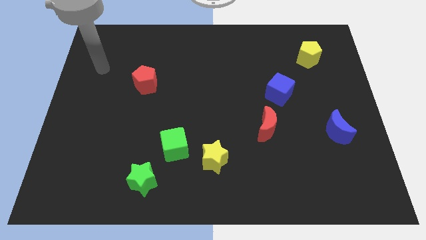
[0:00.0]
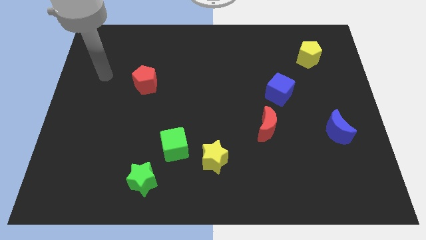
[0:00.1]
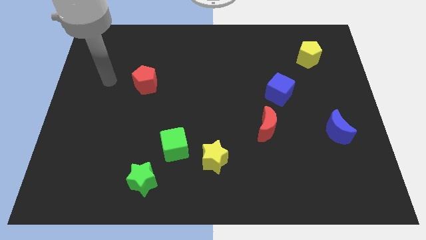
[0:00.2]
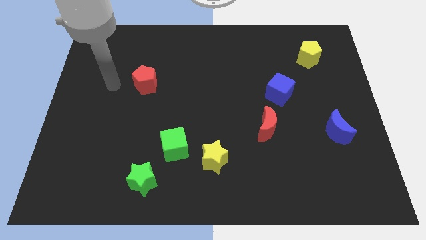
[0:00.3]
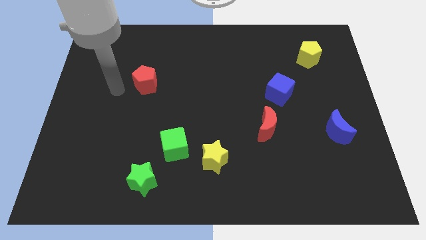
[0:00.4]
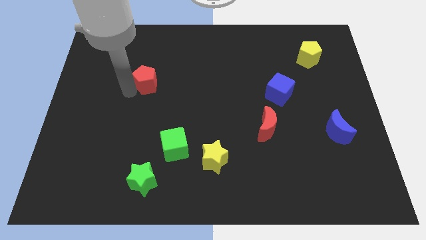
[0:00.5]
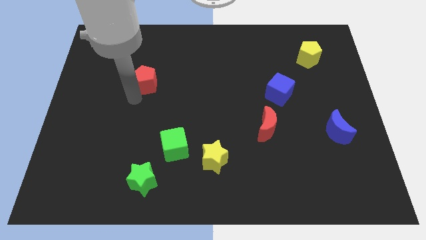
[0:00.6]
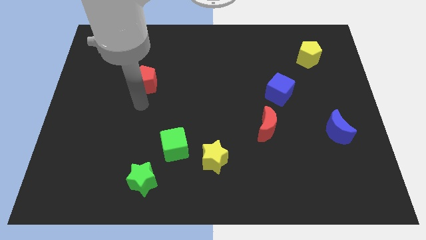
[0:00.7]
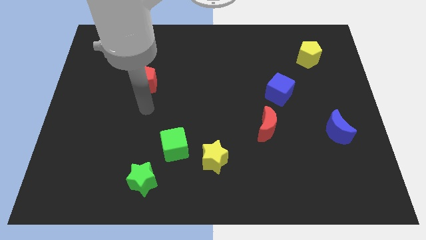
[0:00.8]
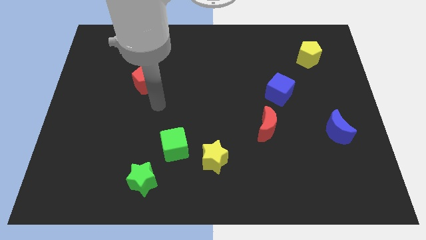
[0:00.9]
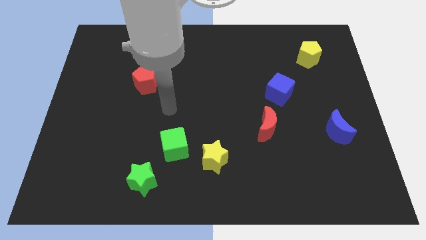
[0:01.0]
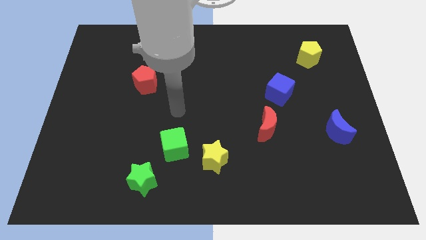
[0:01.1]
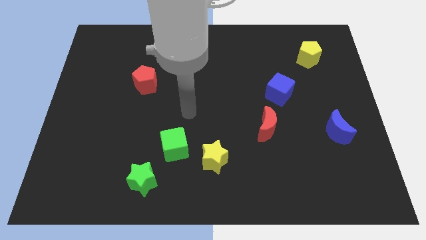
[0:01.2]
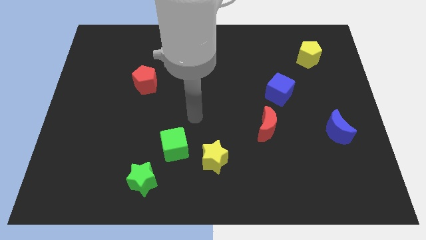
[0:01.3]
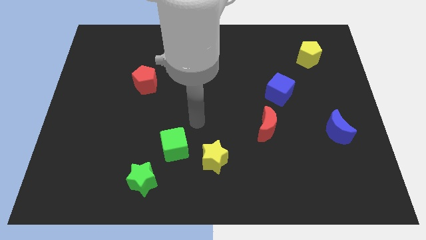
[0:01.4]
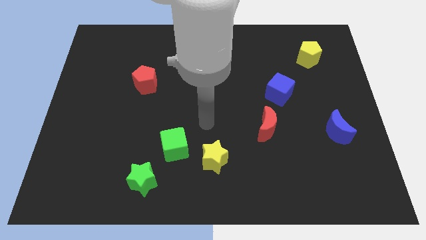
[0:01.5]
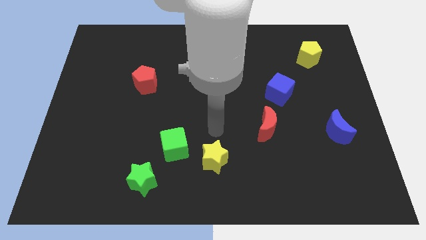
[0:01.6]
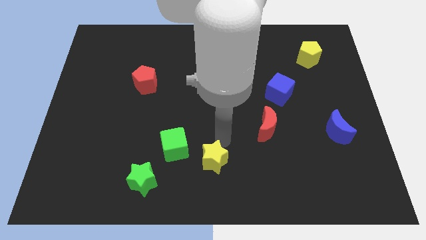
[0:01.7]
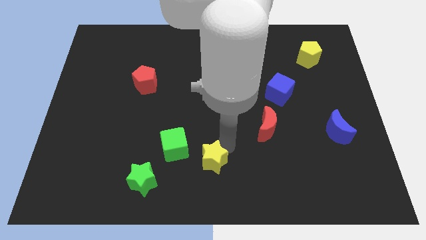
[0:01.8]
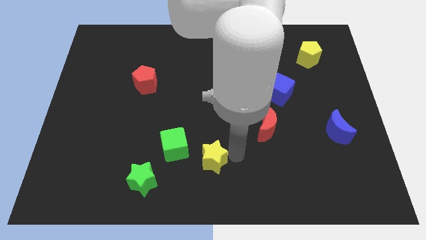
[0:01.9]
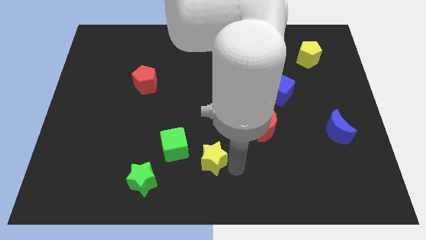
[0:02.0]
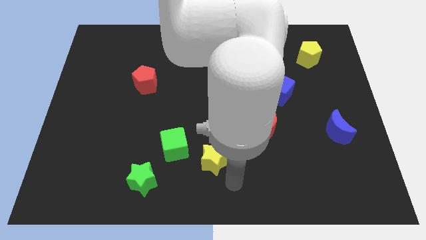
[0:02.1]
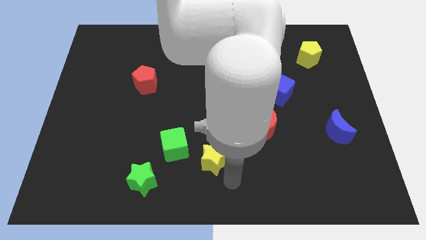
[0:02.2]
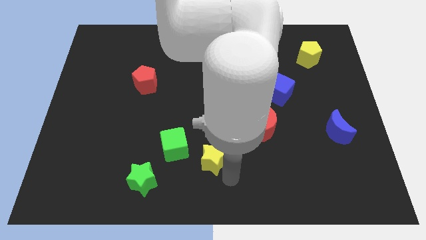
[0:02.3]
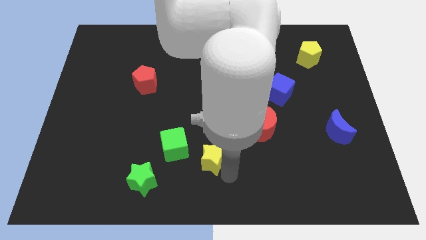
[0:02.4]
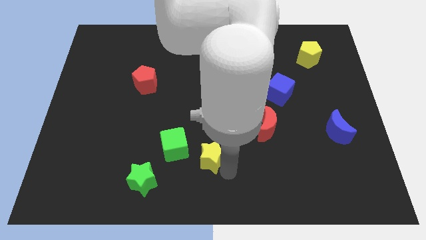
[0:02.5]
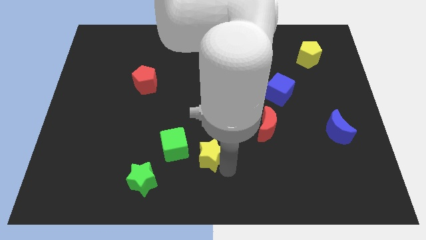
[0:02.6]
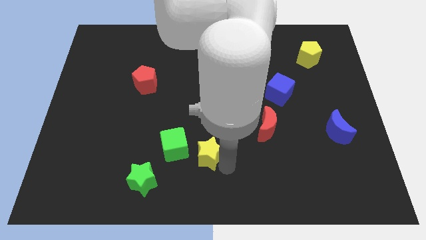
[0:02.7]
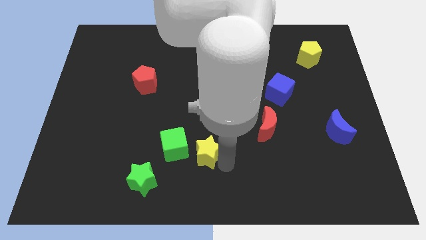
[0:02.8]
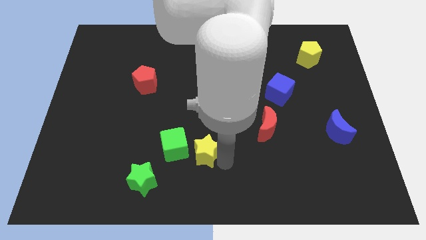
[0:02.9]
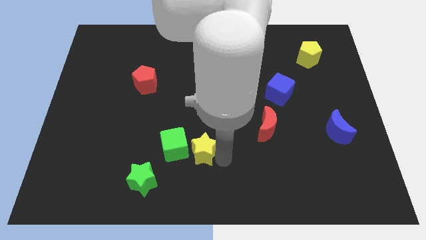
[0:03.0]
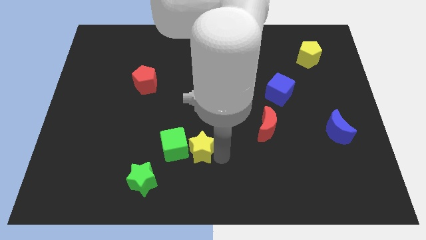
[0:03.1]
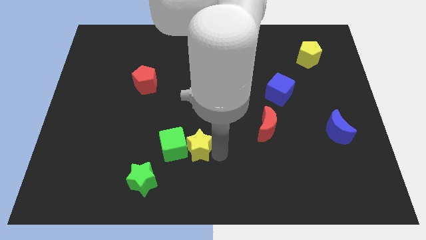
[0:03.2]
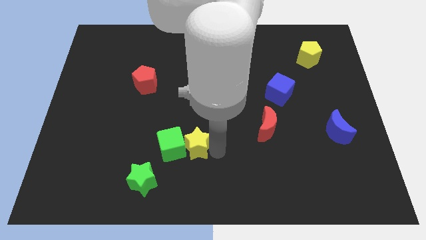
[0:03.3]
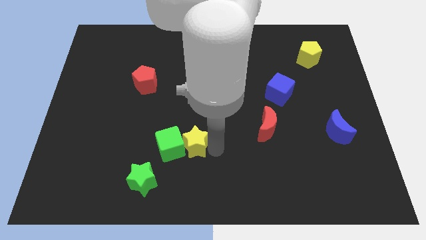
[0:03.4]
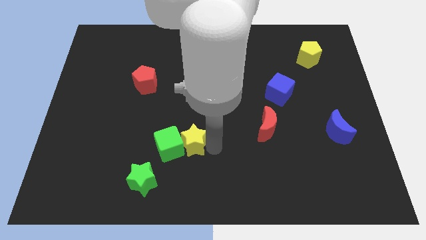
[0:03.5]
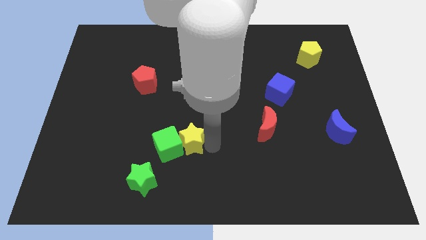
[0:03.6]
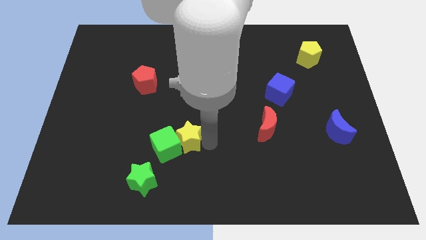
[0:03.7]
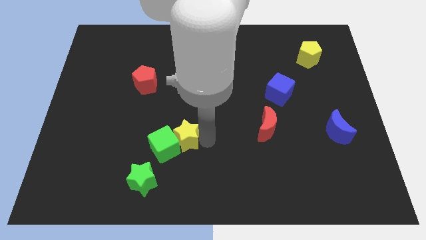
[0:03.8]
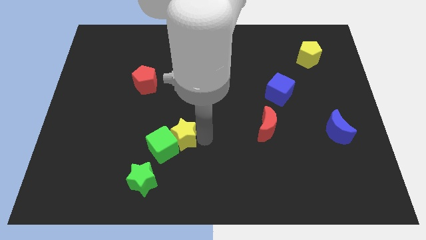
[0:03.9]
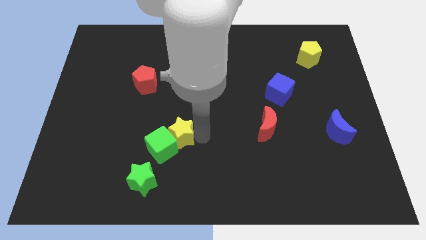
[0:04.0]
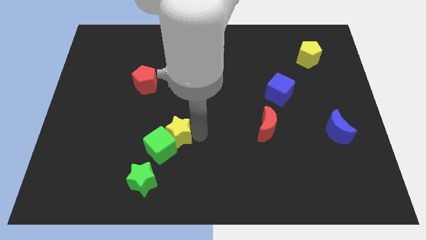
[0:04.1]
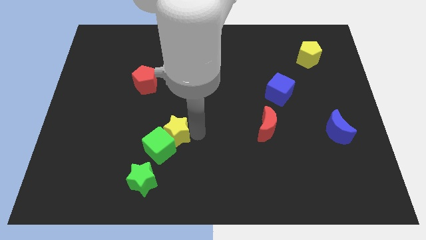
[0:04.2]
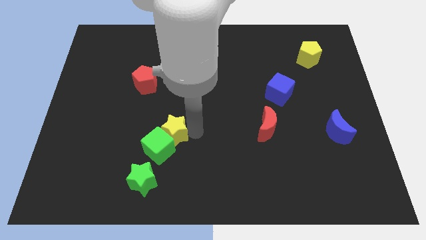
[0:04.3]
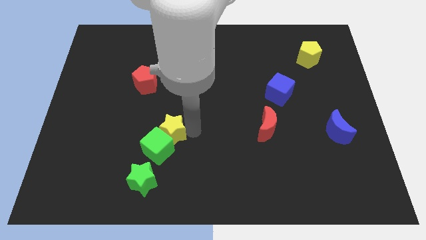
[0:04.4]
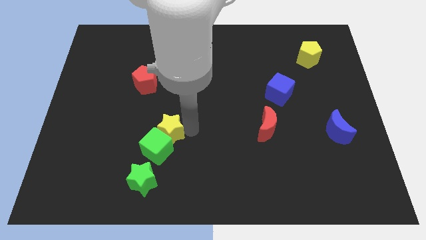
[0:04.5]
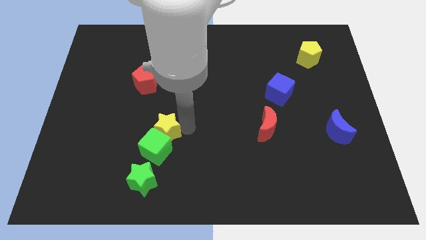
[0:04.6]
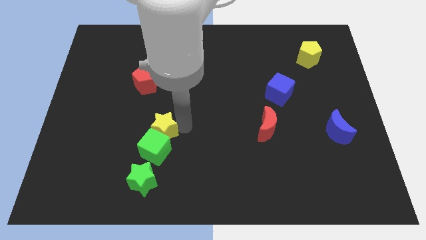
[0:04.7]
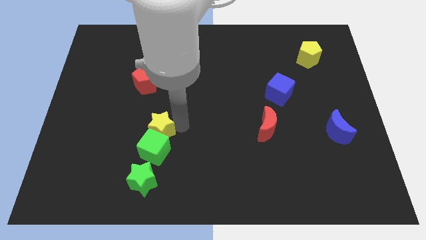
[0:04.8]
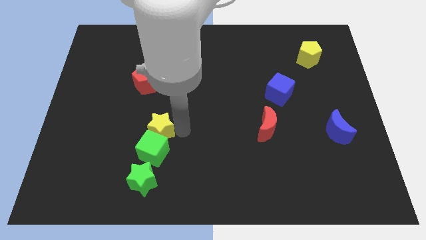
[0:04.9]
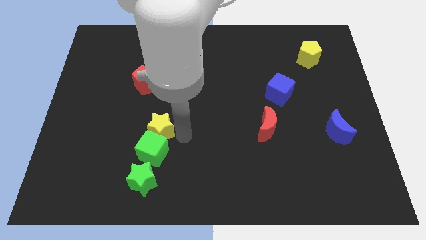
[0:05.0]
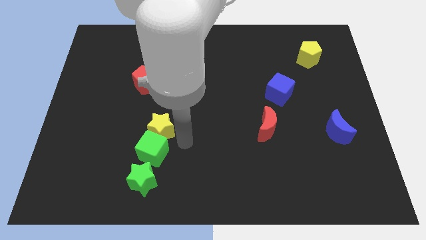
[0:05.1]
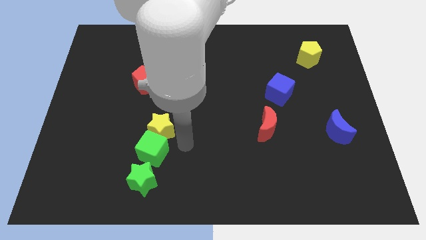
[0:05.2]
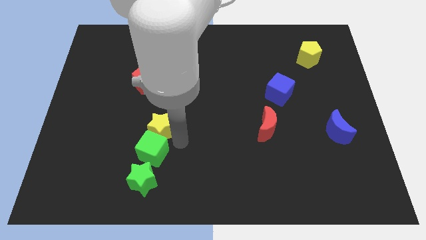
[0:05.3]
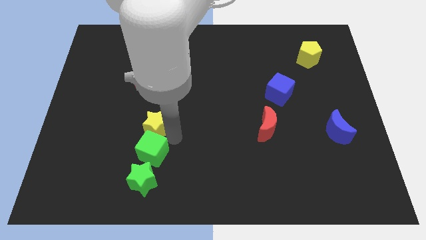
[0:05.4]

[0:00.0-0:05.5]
push the yellow star to the bottom of the red pentagon

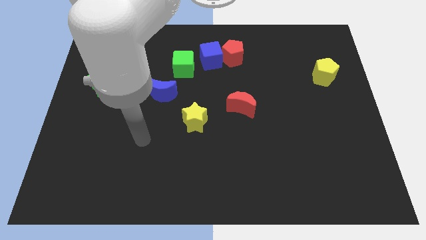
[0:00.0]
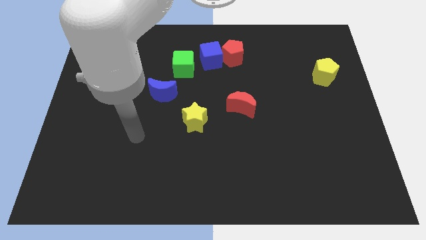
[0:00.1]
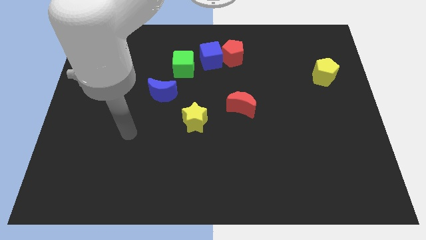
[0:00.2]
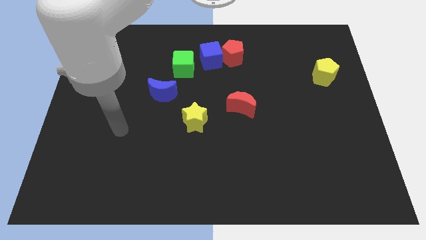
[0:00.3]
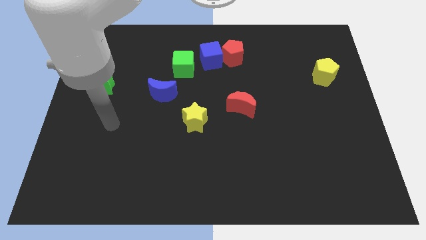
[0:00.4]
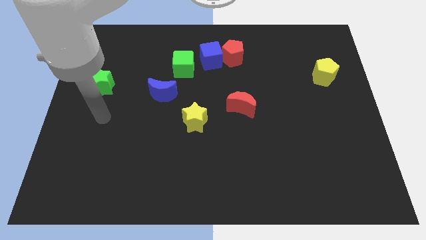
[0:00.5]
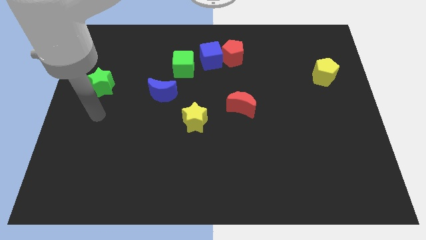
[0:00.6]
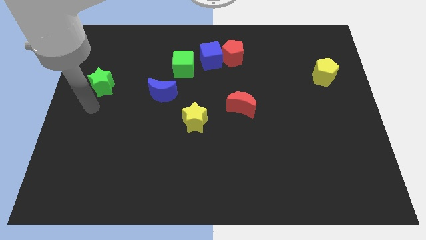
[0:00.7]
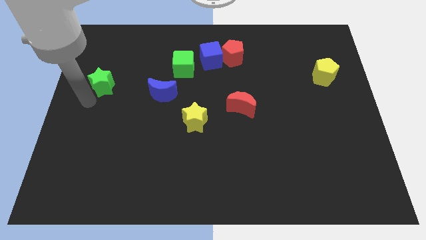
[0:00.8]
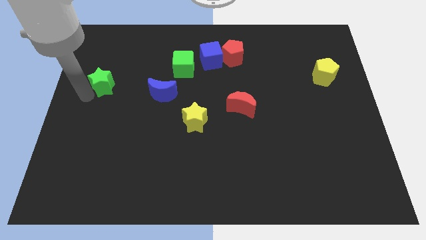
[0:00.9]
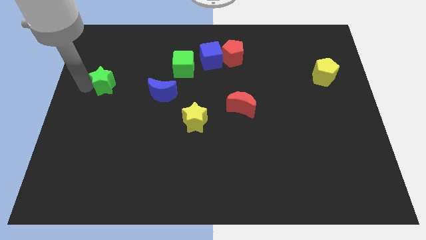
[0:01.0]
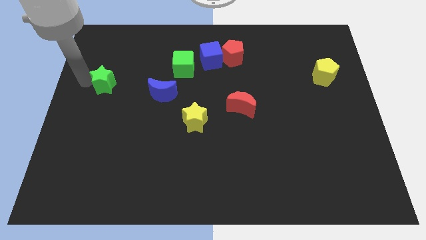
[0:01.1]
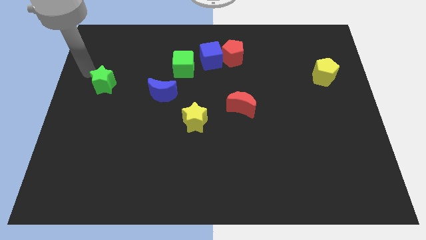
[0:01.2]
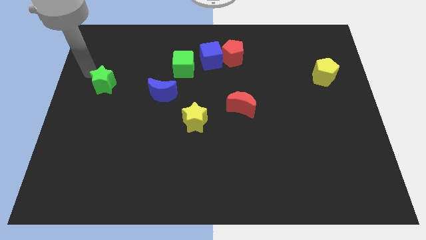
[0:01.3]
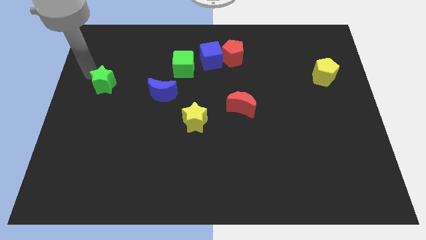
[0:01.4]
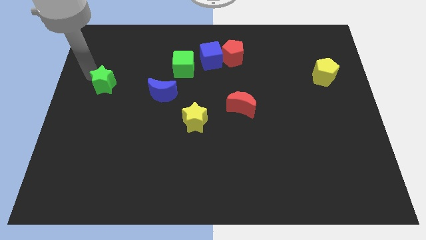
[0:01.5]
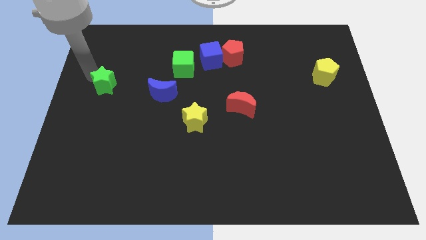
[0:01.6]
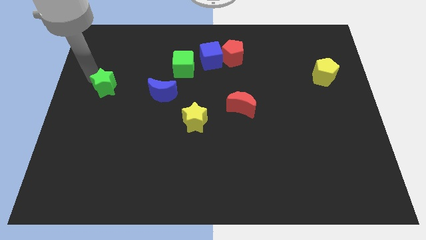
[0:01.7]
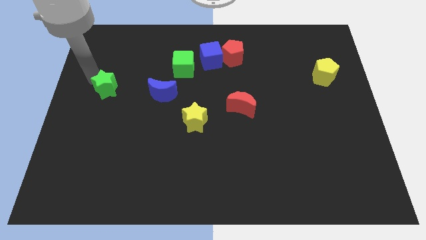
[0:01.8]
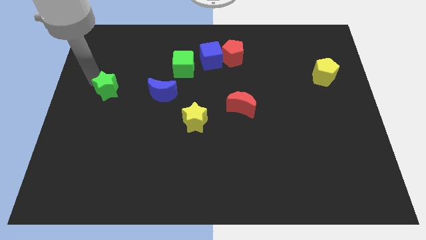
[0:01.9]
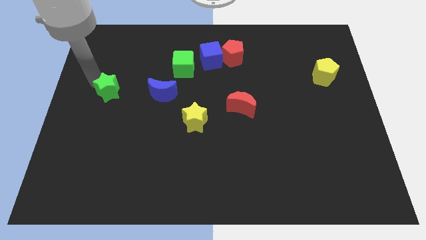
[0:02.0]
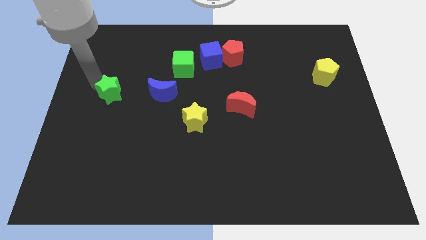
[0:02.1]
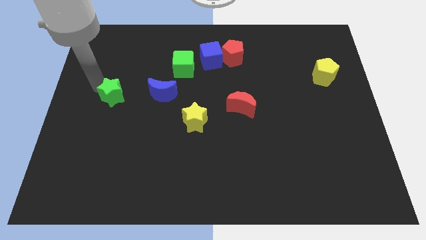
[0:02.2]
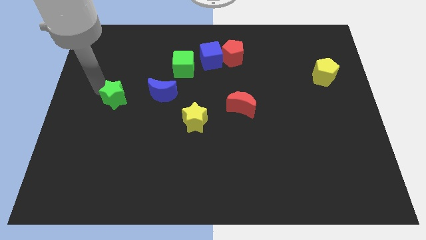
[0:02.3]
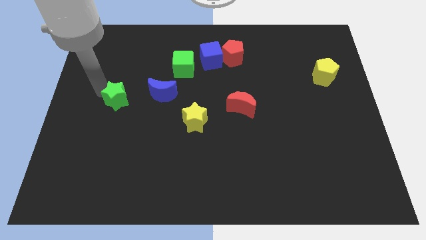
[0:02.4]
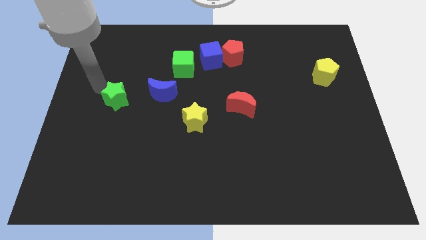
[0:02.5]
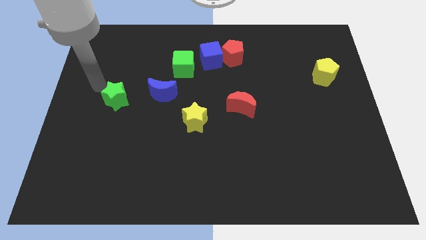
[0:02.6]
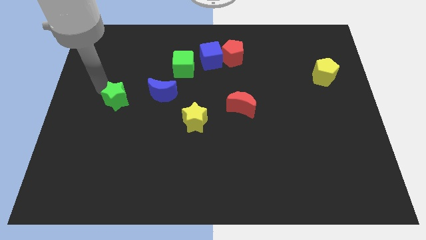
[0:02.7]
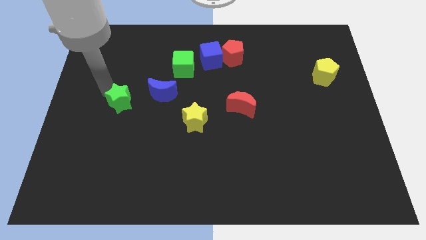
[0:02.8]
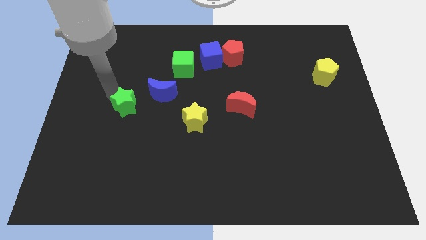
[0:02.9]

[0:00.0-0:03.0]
put the green star to the bottom left side of the blue moon
